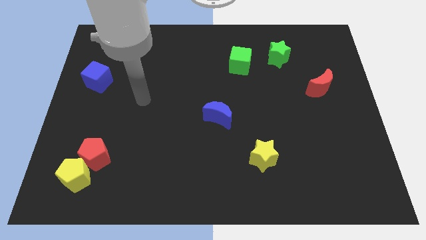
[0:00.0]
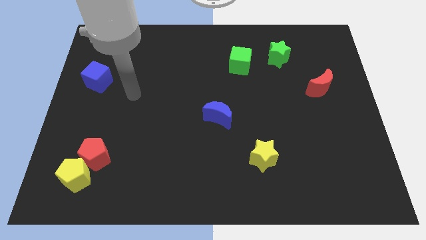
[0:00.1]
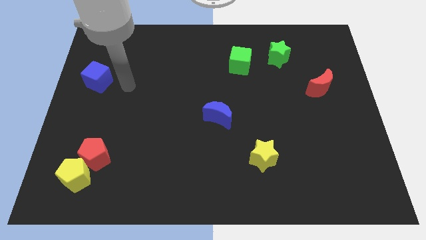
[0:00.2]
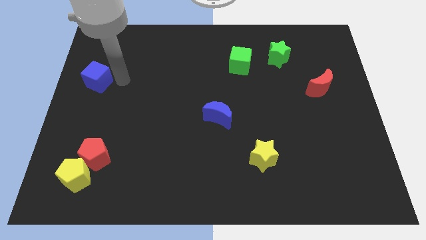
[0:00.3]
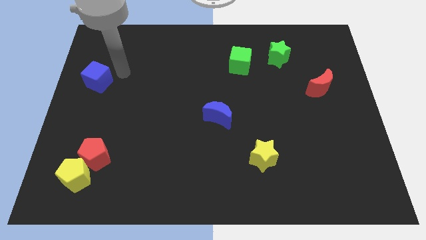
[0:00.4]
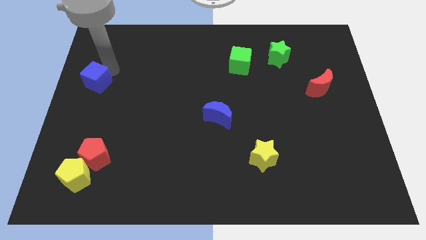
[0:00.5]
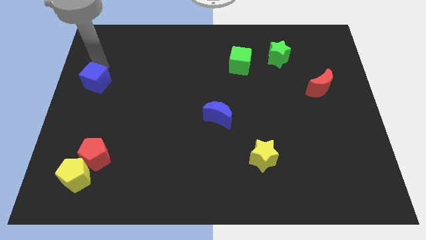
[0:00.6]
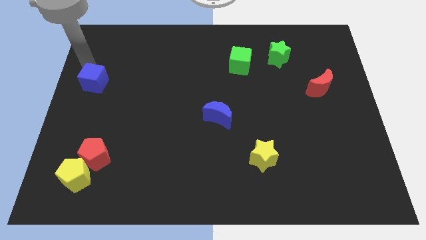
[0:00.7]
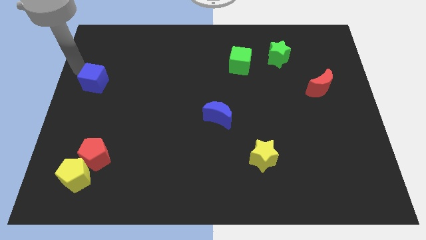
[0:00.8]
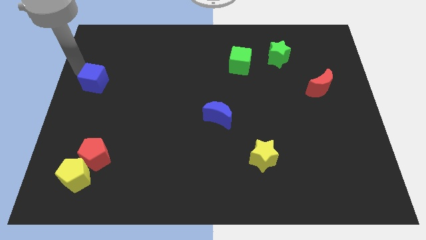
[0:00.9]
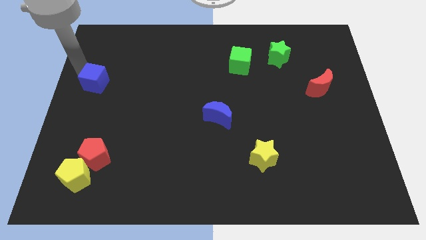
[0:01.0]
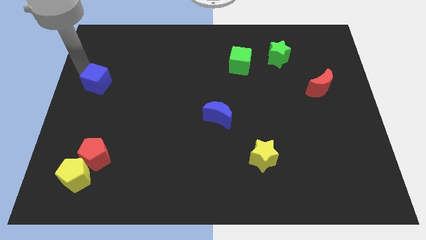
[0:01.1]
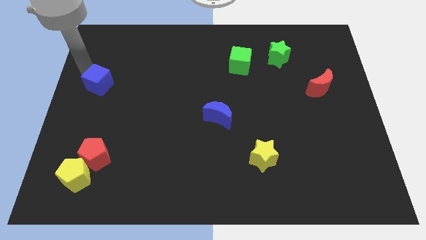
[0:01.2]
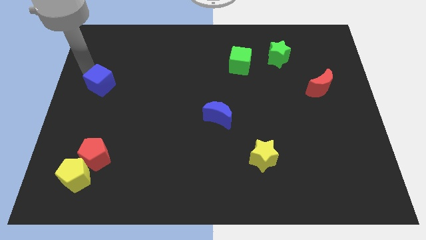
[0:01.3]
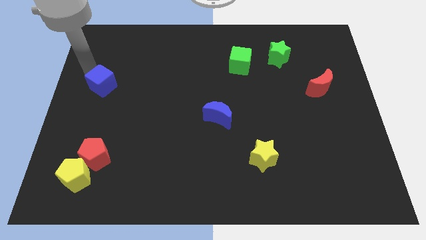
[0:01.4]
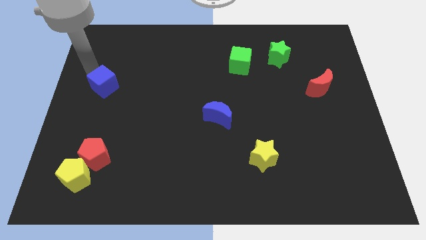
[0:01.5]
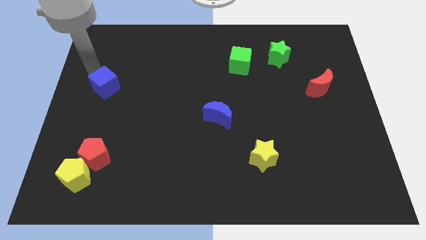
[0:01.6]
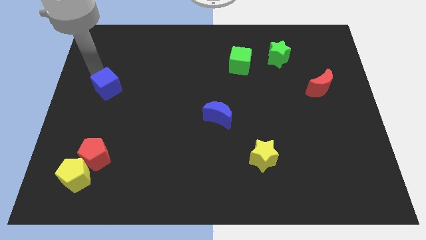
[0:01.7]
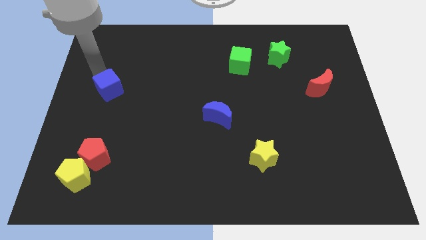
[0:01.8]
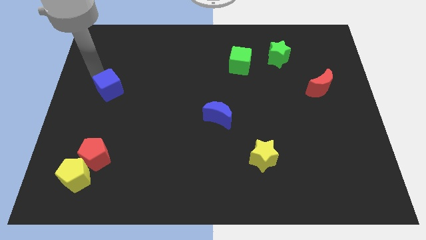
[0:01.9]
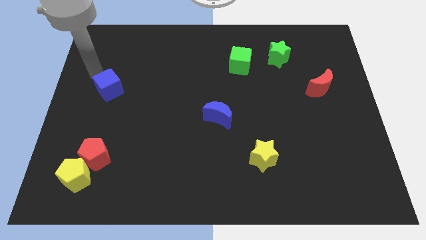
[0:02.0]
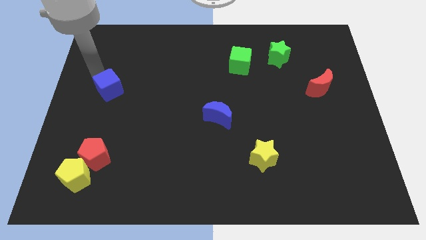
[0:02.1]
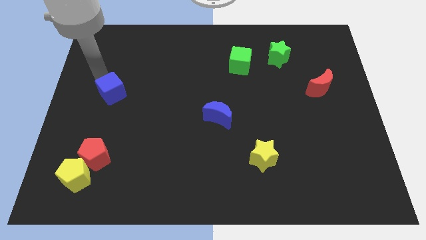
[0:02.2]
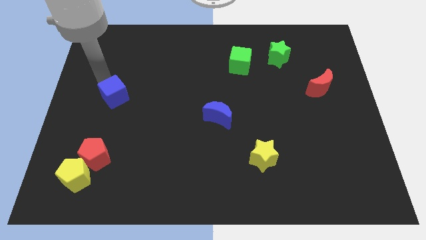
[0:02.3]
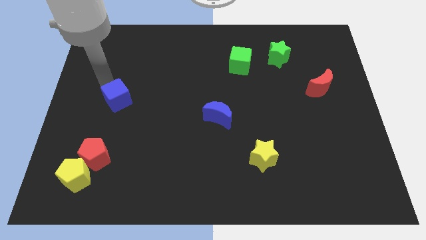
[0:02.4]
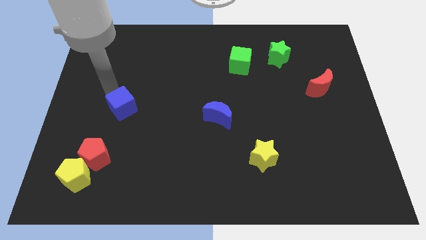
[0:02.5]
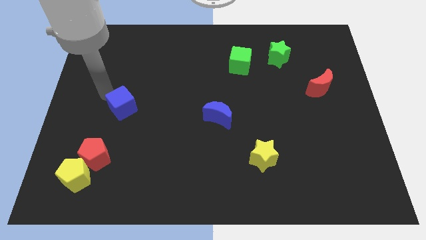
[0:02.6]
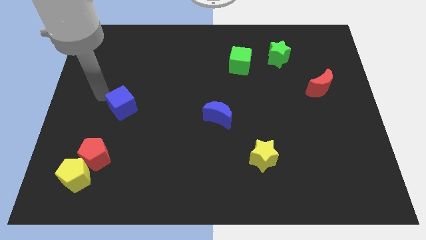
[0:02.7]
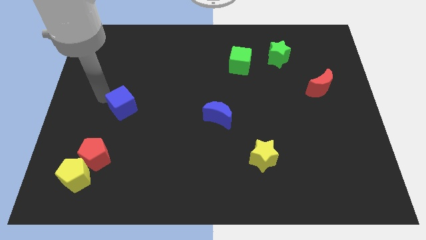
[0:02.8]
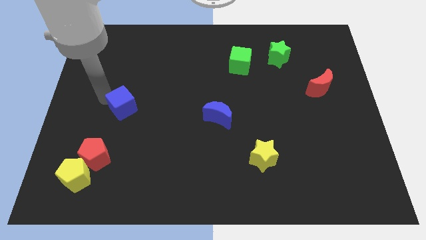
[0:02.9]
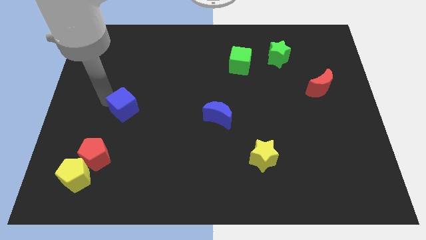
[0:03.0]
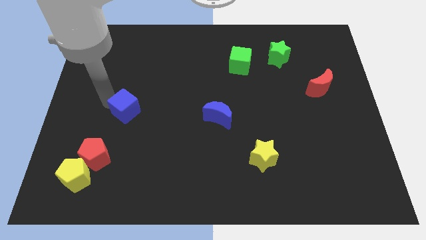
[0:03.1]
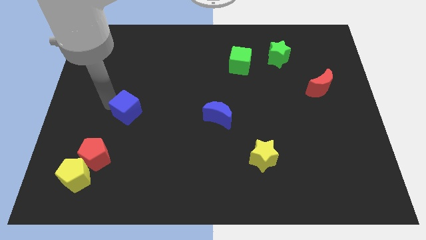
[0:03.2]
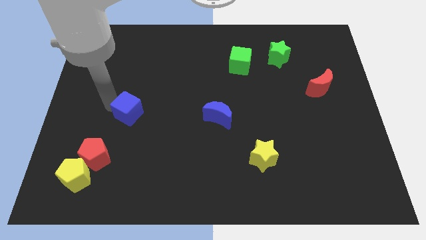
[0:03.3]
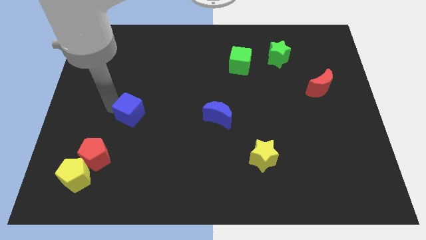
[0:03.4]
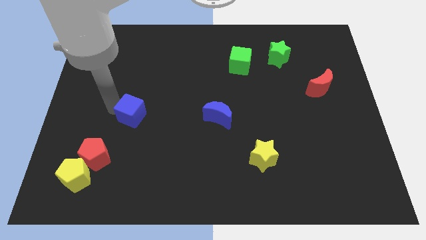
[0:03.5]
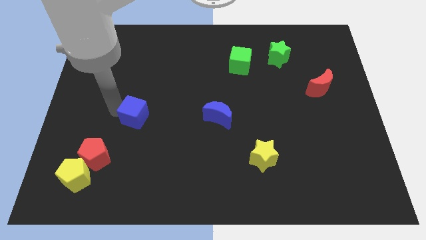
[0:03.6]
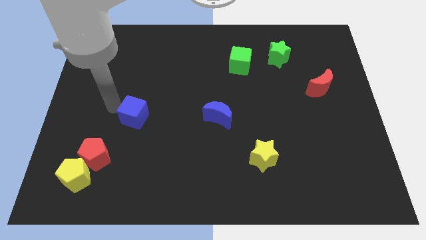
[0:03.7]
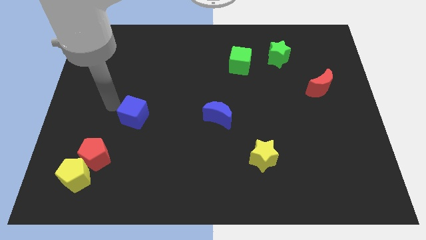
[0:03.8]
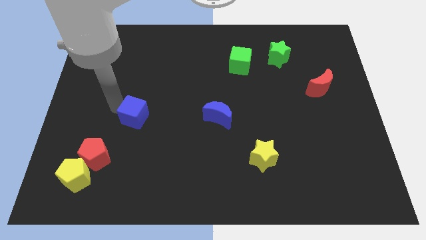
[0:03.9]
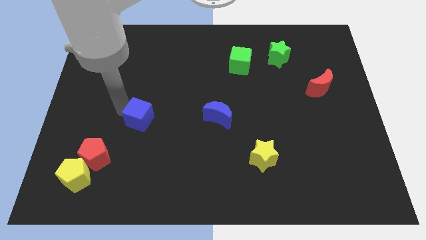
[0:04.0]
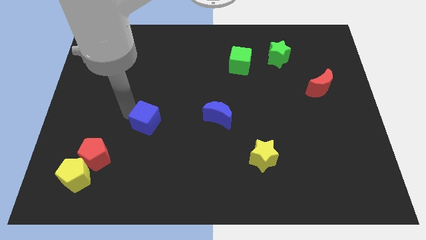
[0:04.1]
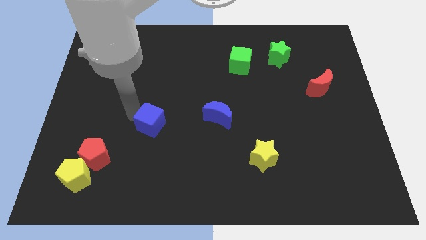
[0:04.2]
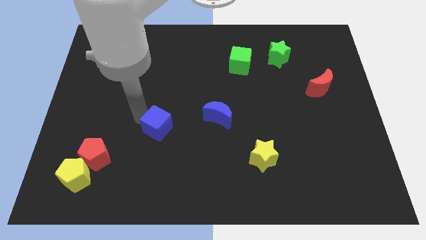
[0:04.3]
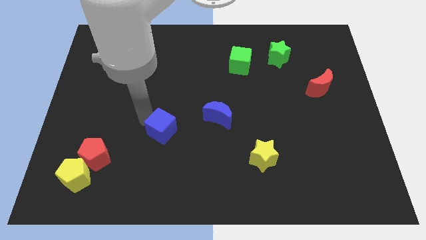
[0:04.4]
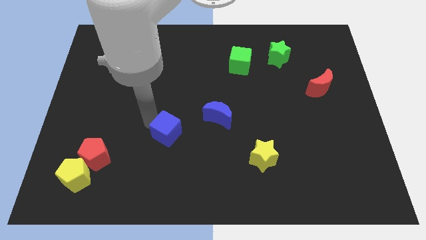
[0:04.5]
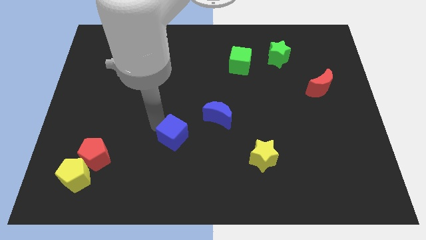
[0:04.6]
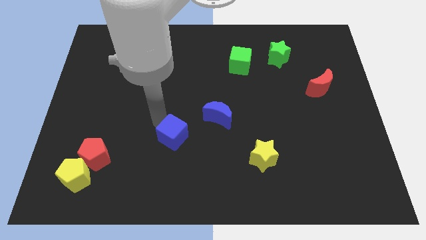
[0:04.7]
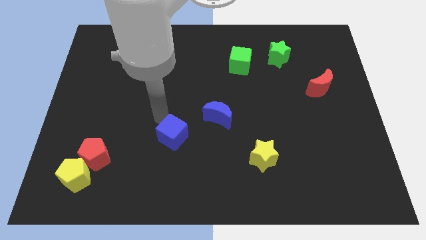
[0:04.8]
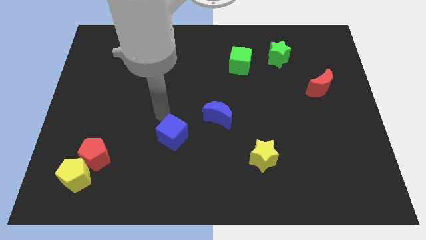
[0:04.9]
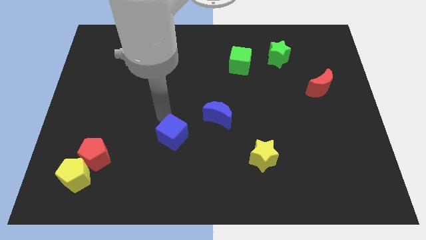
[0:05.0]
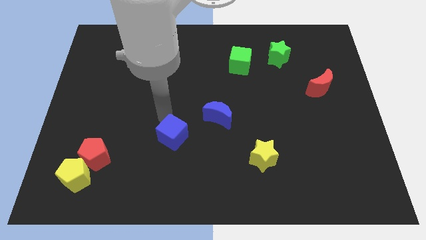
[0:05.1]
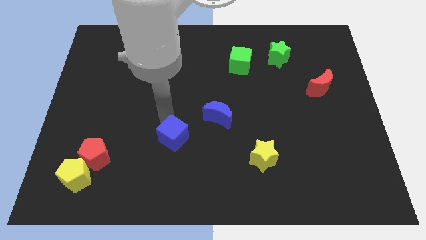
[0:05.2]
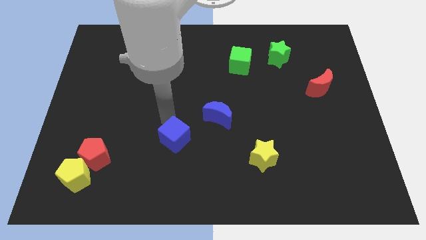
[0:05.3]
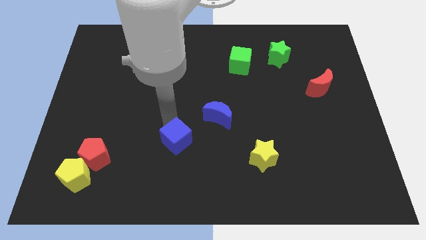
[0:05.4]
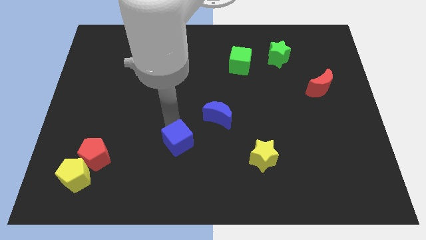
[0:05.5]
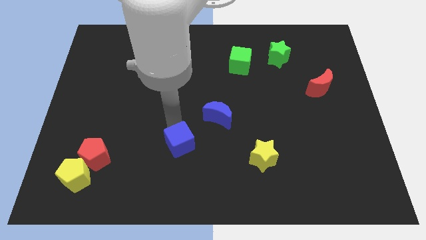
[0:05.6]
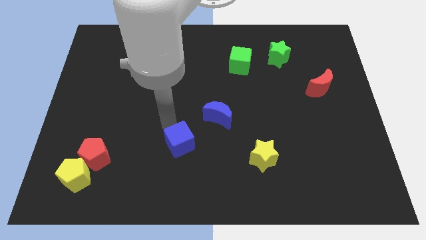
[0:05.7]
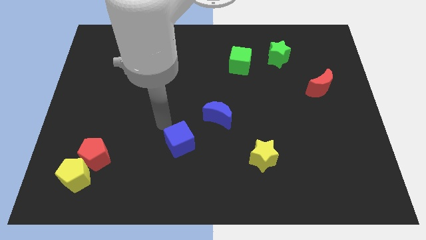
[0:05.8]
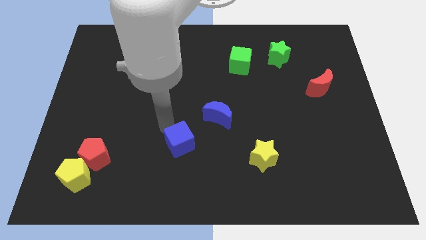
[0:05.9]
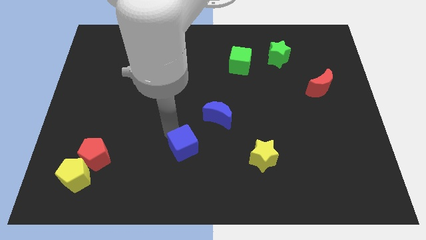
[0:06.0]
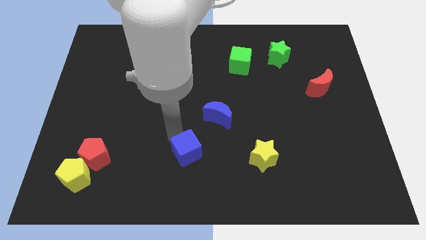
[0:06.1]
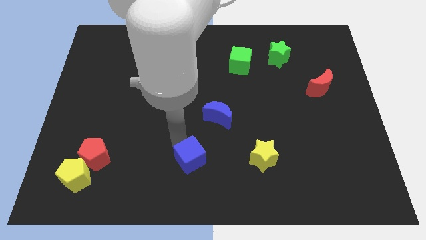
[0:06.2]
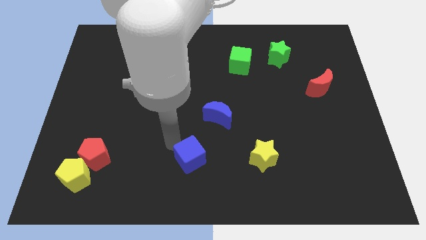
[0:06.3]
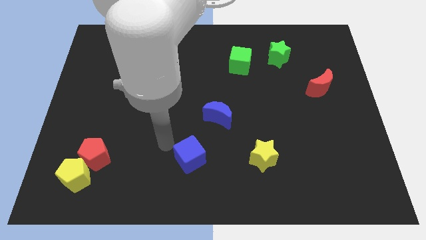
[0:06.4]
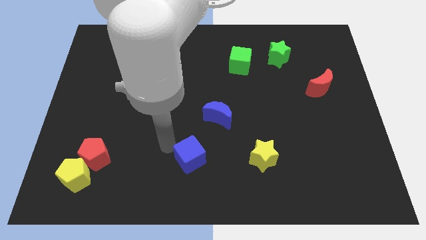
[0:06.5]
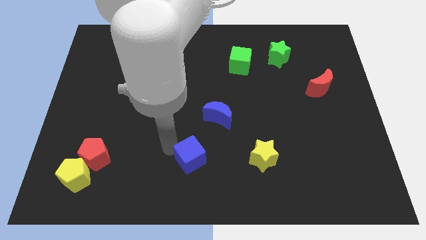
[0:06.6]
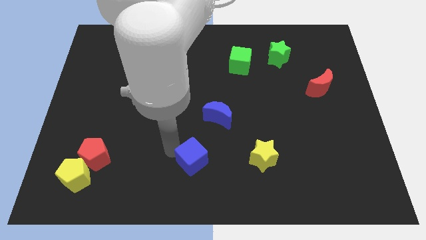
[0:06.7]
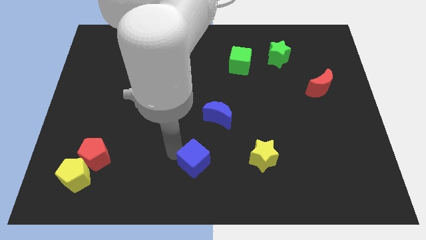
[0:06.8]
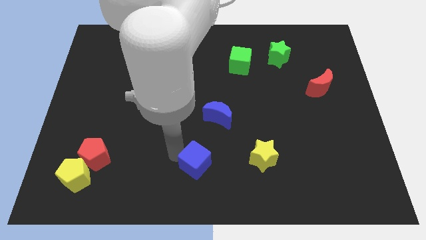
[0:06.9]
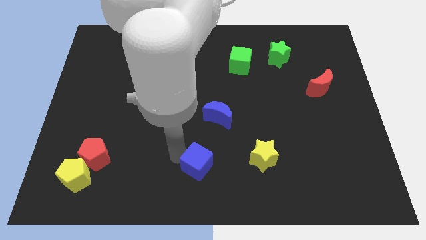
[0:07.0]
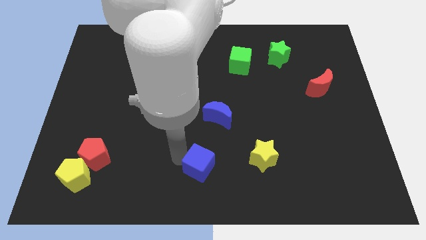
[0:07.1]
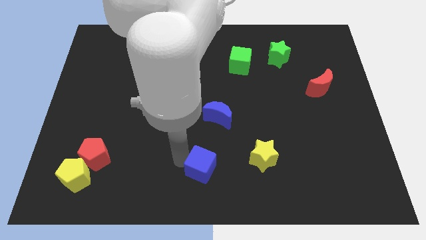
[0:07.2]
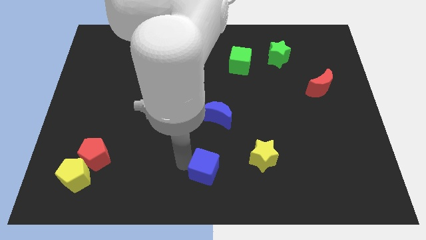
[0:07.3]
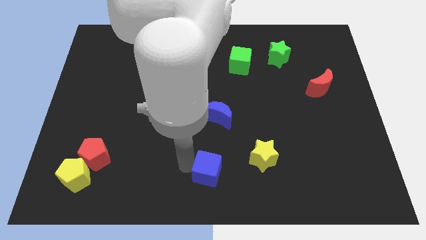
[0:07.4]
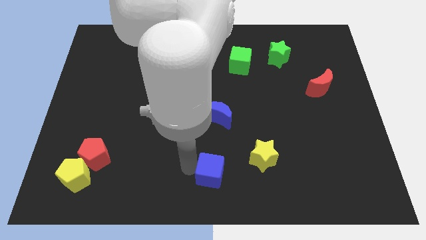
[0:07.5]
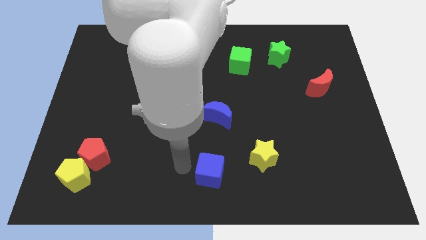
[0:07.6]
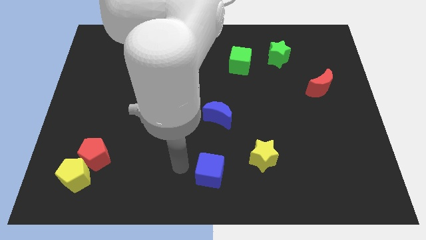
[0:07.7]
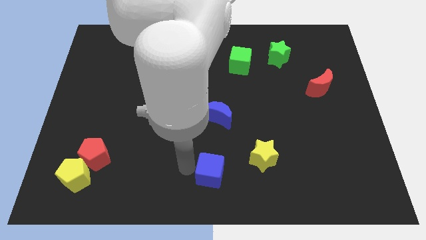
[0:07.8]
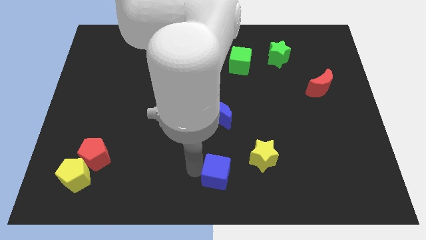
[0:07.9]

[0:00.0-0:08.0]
slide the blue cube to the bottom left of the yellow star
